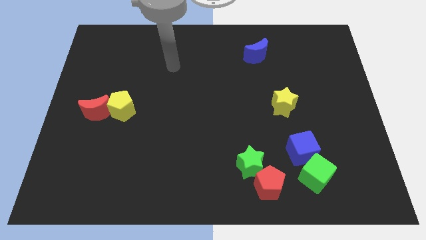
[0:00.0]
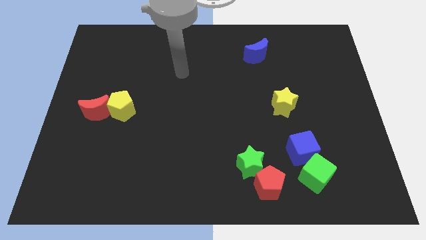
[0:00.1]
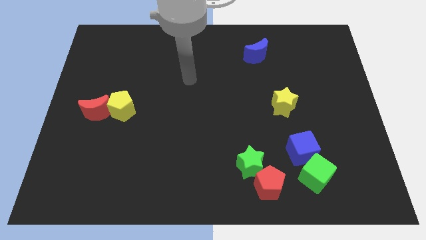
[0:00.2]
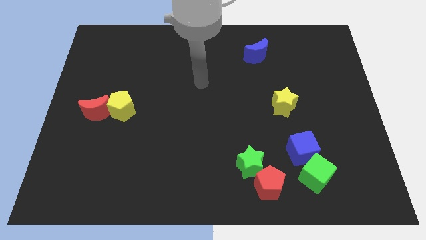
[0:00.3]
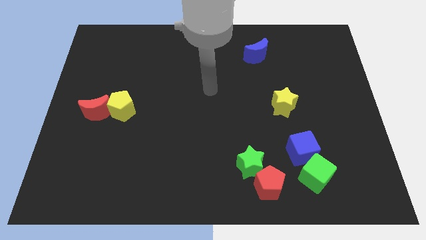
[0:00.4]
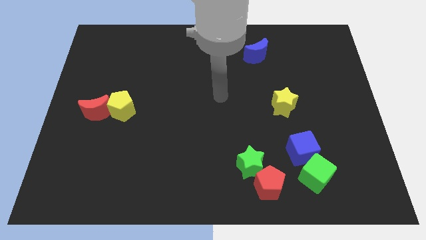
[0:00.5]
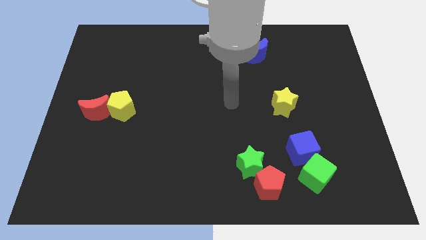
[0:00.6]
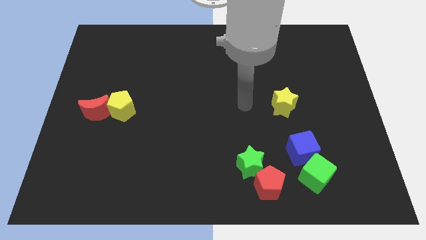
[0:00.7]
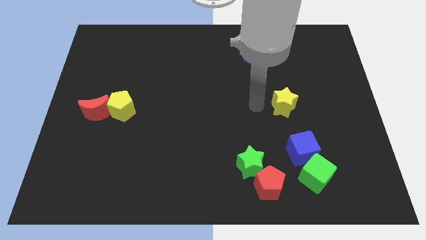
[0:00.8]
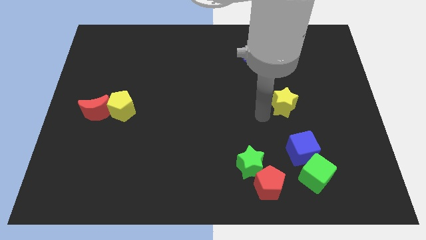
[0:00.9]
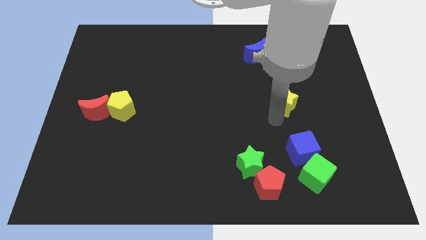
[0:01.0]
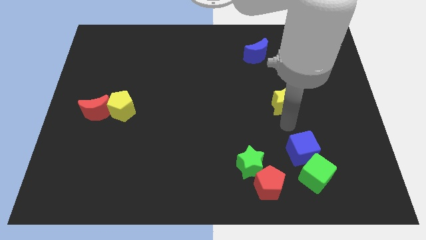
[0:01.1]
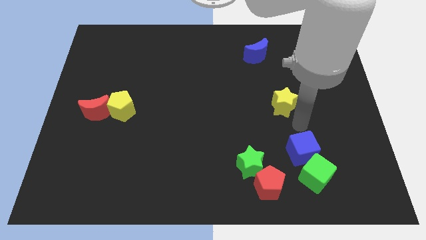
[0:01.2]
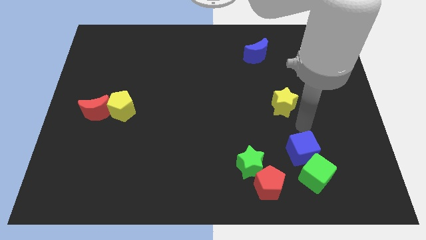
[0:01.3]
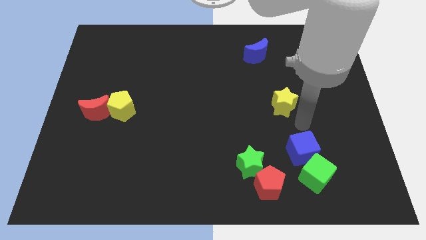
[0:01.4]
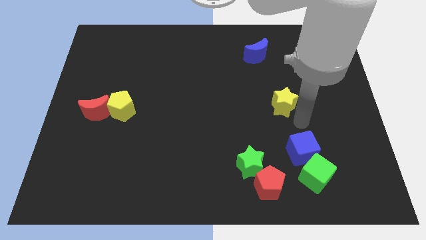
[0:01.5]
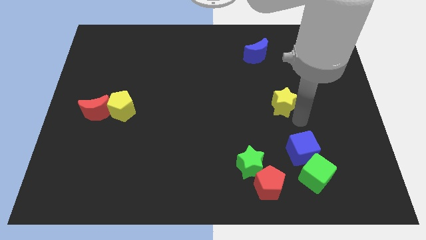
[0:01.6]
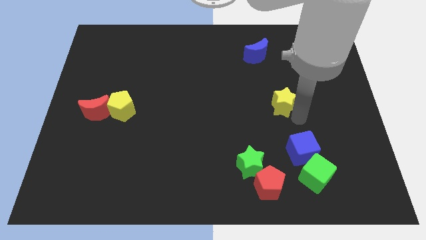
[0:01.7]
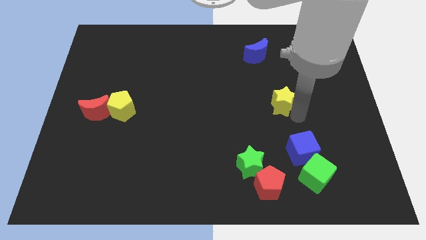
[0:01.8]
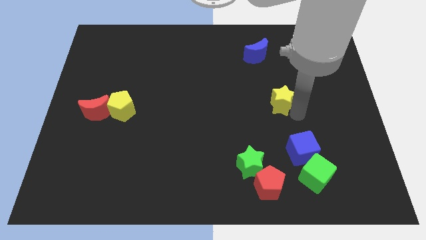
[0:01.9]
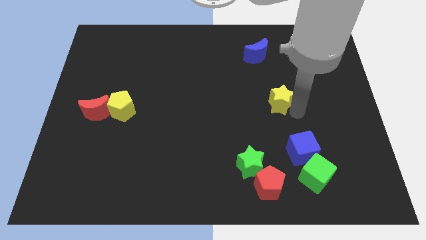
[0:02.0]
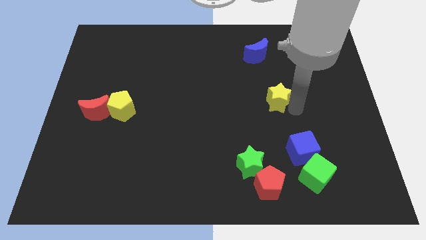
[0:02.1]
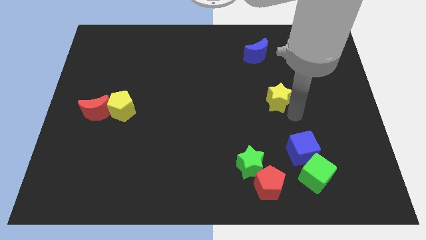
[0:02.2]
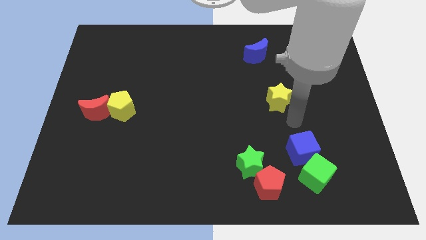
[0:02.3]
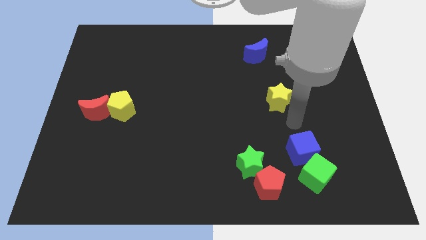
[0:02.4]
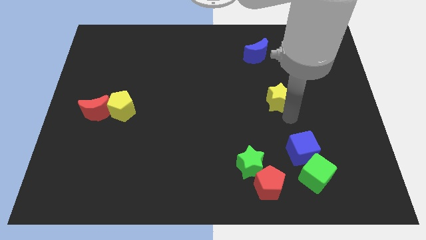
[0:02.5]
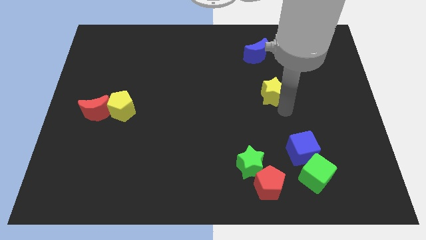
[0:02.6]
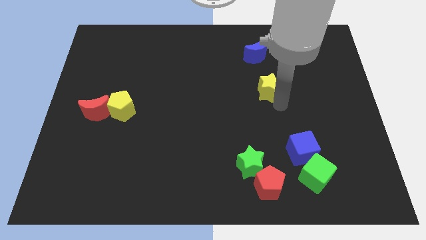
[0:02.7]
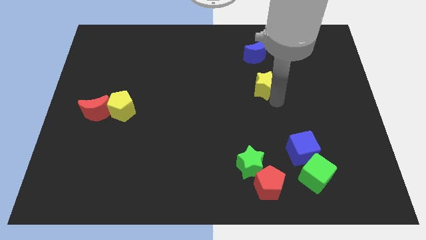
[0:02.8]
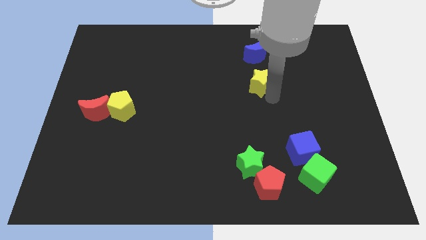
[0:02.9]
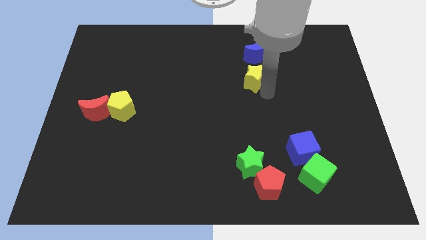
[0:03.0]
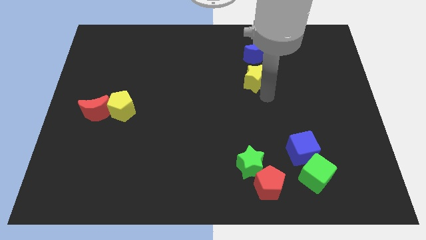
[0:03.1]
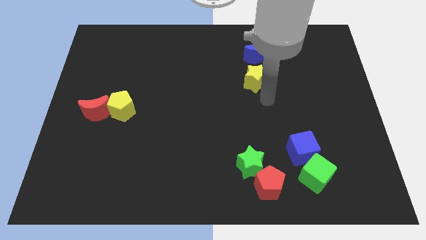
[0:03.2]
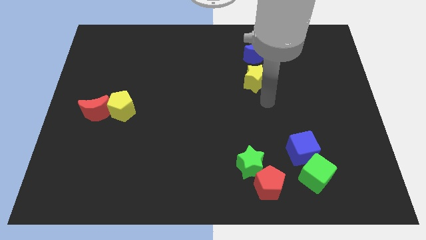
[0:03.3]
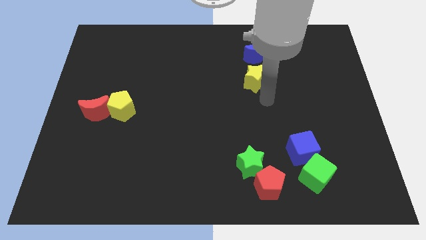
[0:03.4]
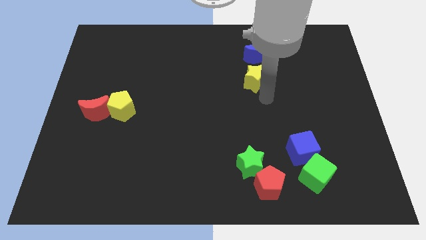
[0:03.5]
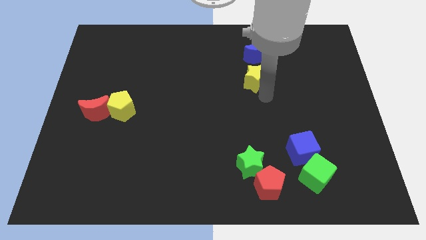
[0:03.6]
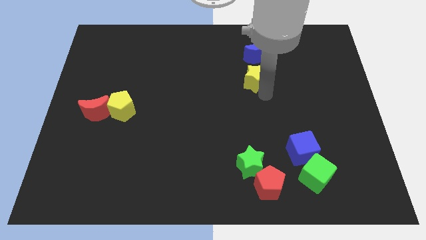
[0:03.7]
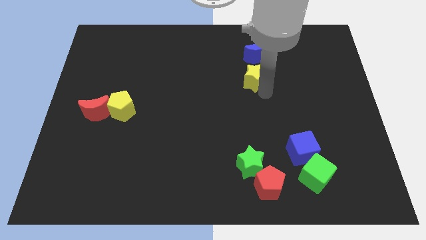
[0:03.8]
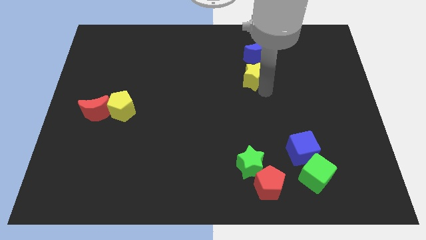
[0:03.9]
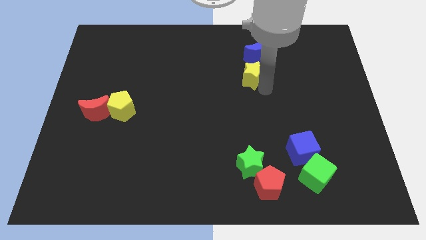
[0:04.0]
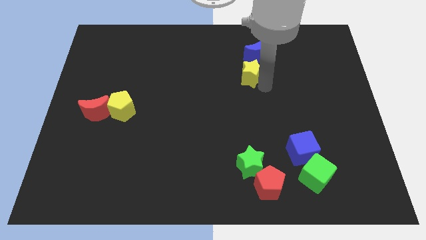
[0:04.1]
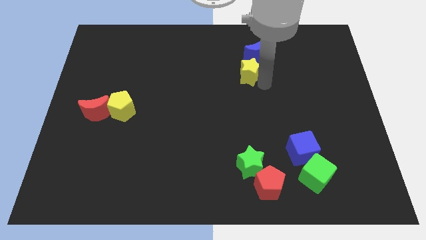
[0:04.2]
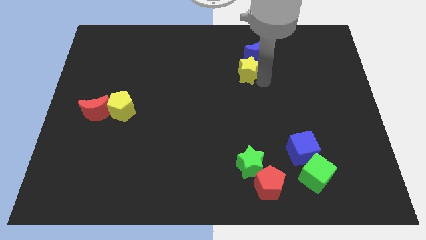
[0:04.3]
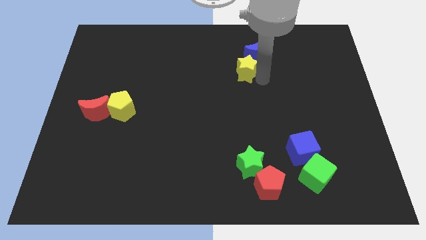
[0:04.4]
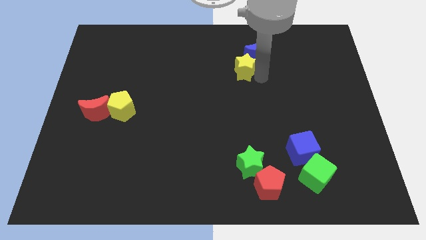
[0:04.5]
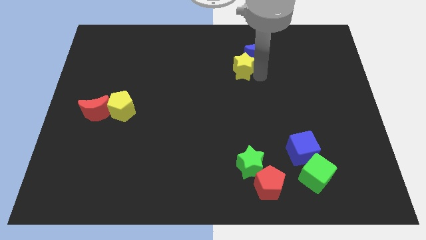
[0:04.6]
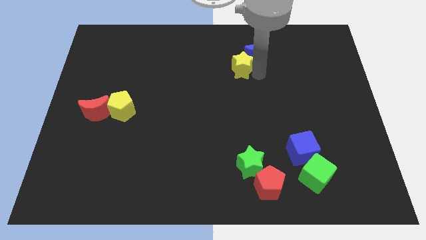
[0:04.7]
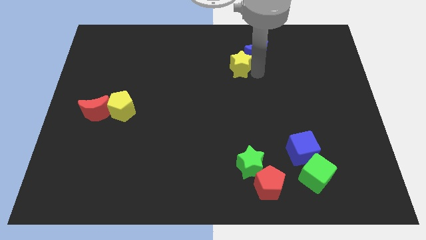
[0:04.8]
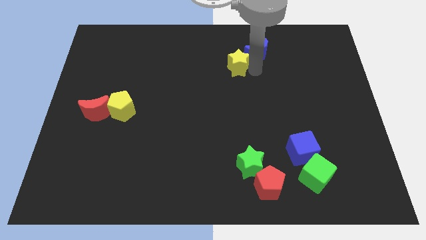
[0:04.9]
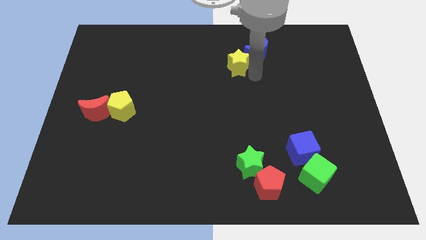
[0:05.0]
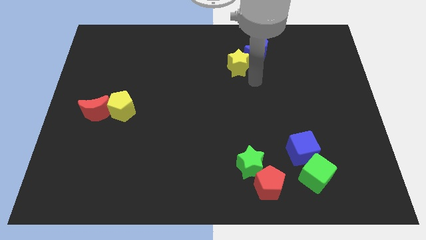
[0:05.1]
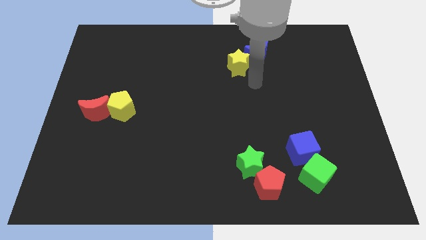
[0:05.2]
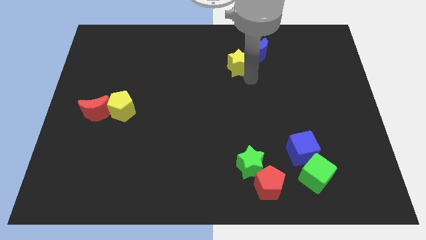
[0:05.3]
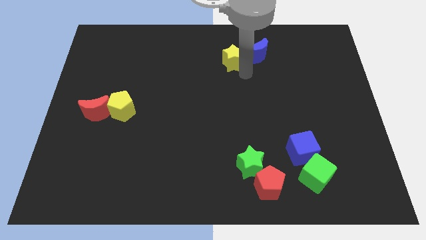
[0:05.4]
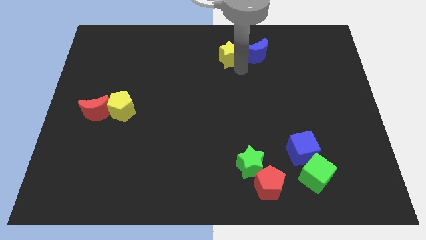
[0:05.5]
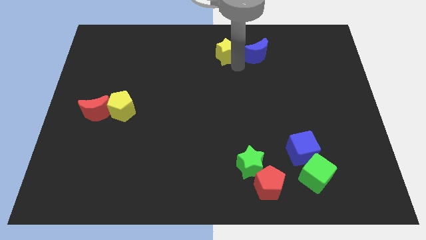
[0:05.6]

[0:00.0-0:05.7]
put the yellow star to the top
